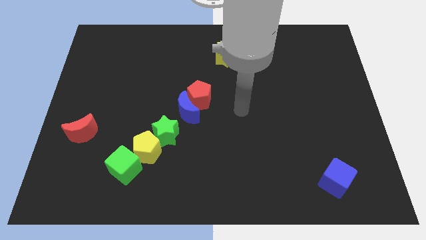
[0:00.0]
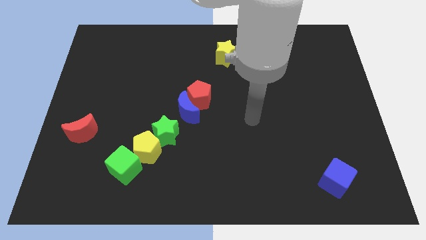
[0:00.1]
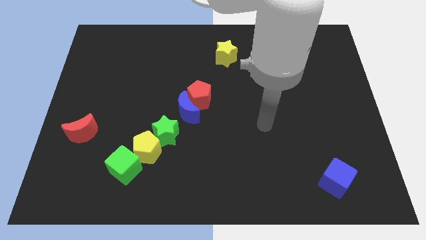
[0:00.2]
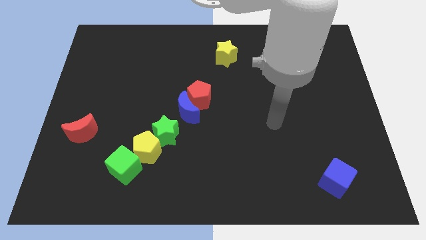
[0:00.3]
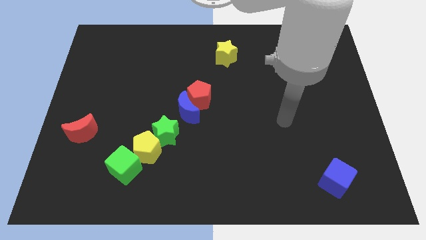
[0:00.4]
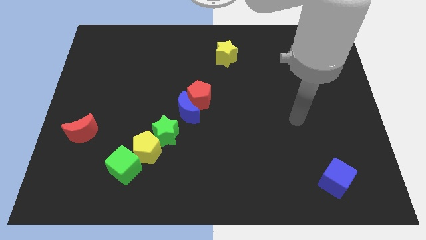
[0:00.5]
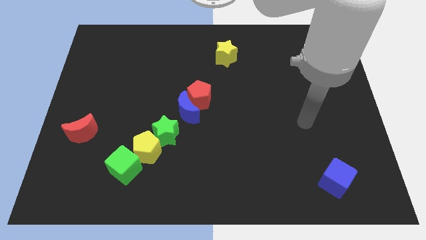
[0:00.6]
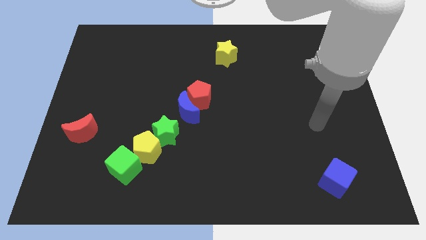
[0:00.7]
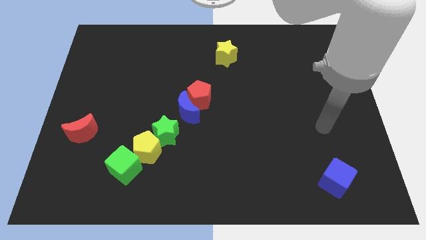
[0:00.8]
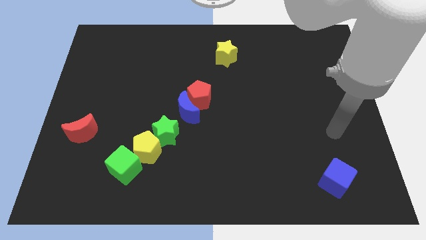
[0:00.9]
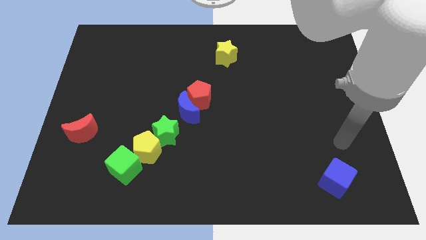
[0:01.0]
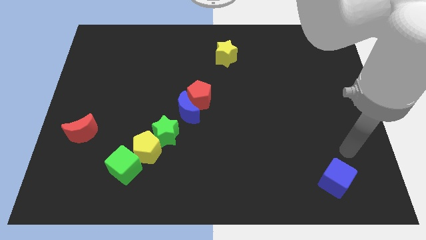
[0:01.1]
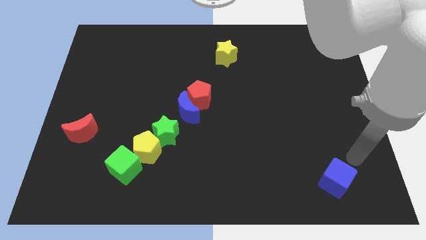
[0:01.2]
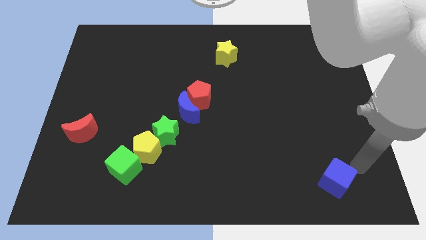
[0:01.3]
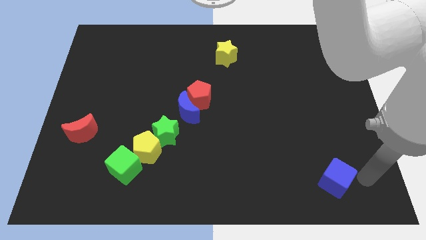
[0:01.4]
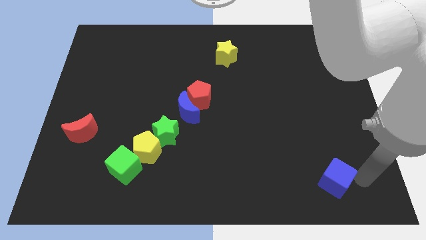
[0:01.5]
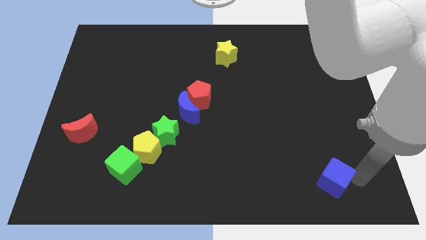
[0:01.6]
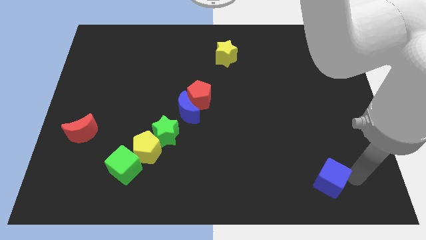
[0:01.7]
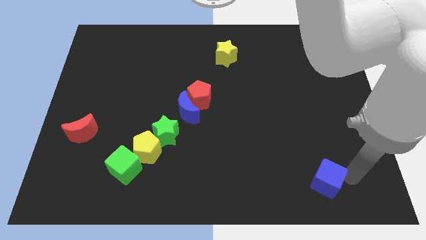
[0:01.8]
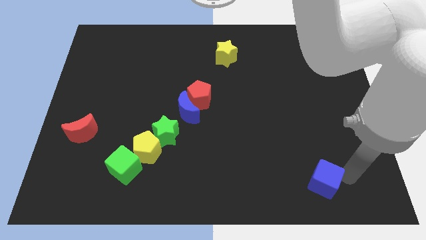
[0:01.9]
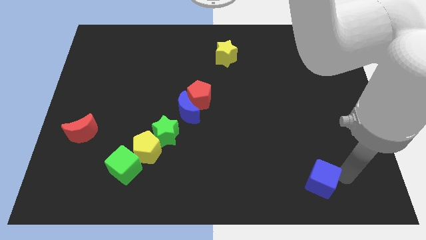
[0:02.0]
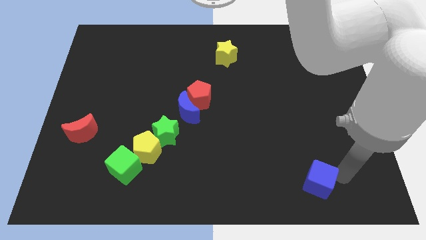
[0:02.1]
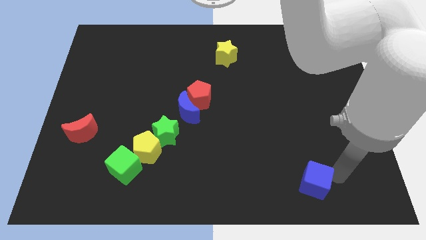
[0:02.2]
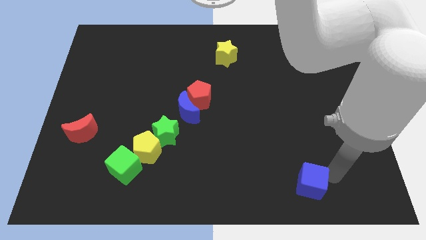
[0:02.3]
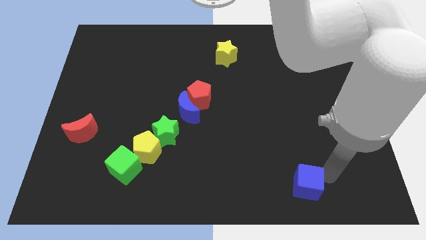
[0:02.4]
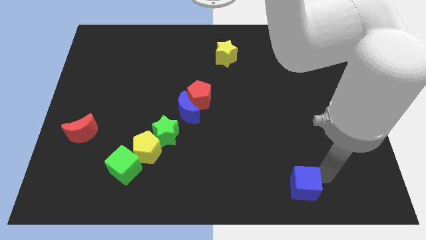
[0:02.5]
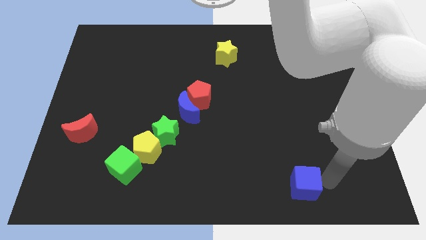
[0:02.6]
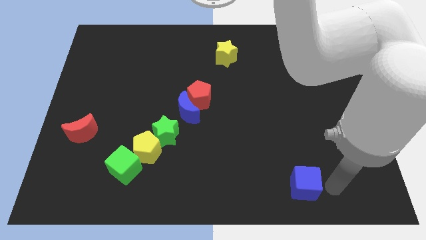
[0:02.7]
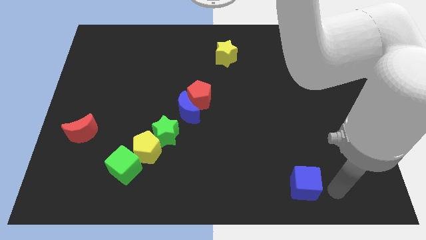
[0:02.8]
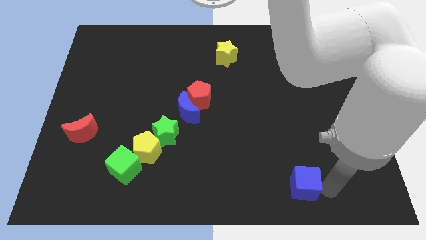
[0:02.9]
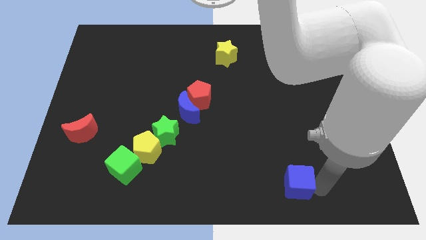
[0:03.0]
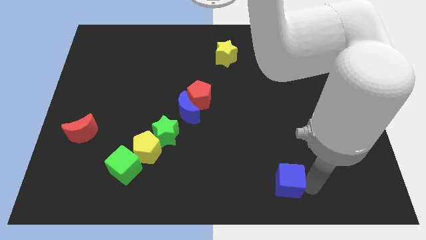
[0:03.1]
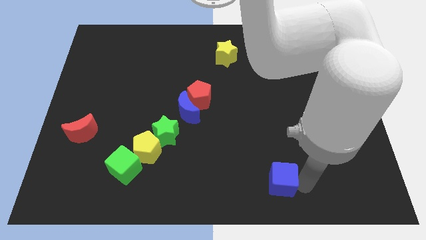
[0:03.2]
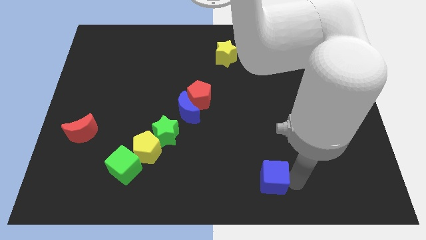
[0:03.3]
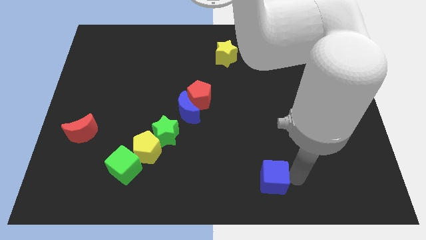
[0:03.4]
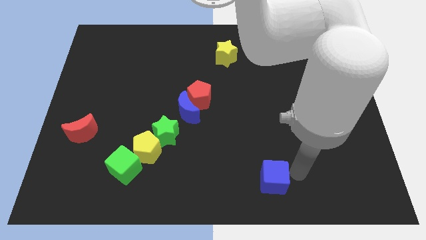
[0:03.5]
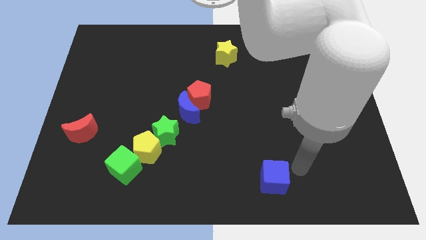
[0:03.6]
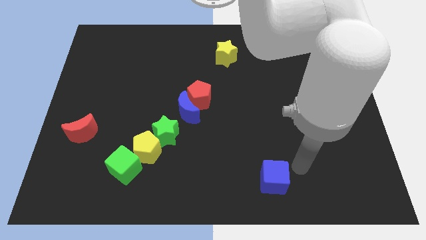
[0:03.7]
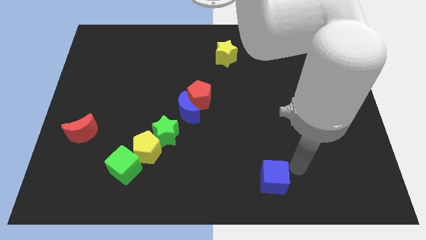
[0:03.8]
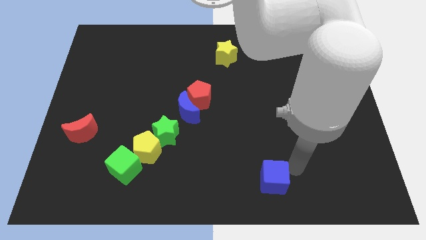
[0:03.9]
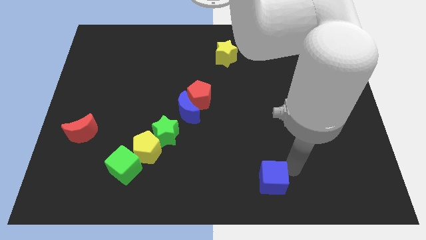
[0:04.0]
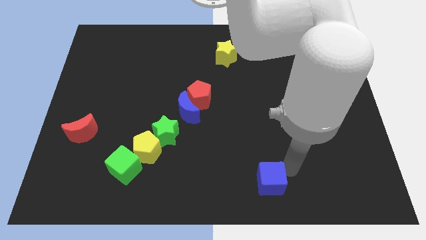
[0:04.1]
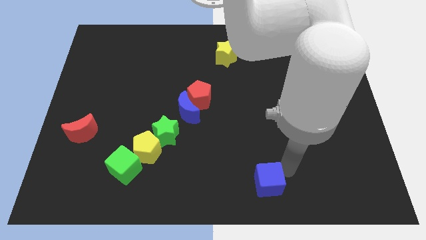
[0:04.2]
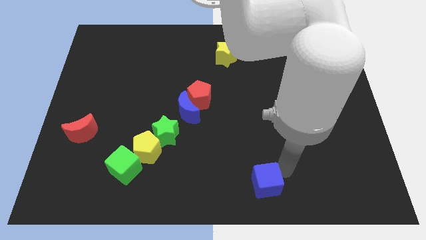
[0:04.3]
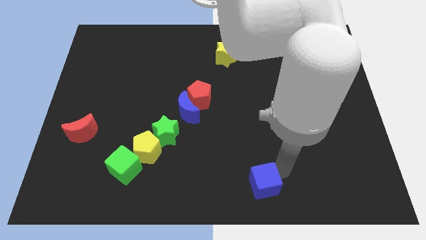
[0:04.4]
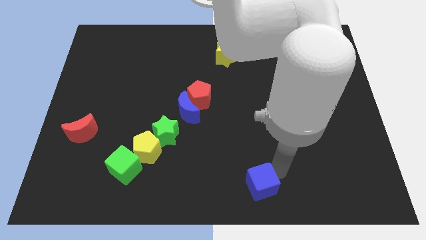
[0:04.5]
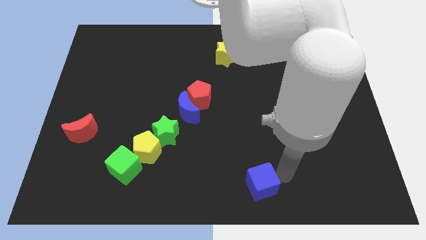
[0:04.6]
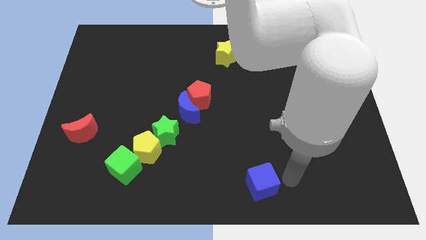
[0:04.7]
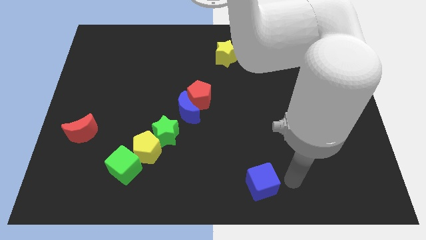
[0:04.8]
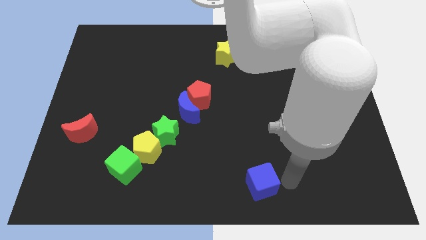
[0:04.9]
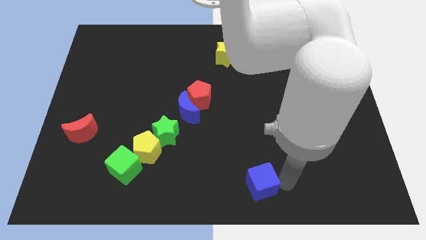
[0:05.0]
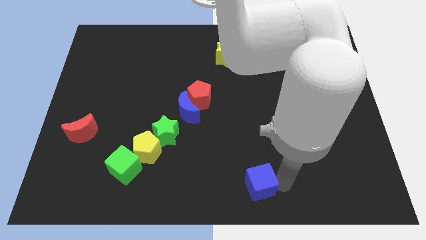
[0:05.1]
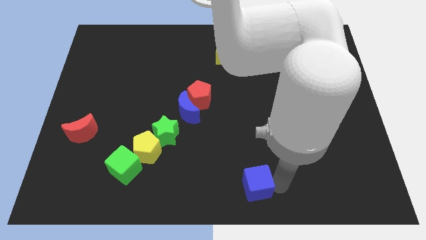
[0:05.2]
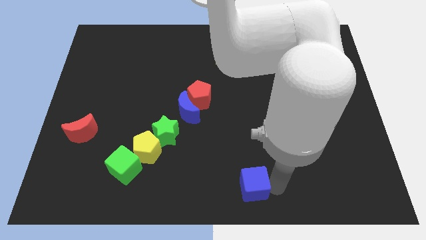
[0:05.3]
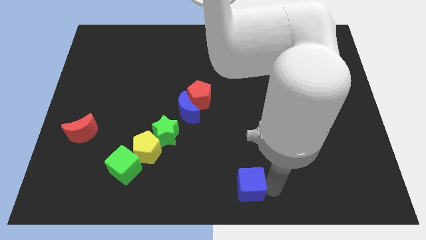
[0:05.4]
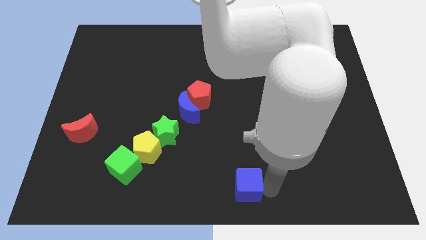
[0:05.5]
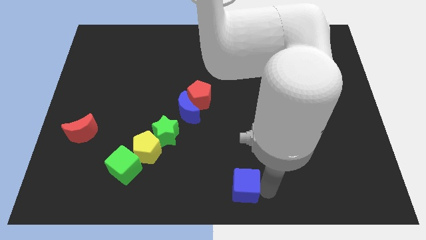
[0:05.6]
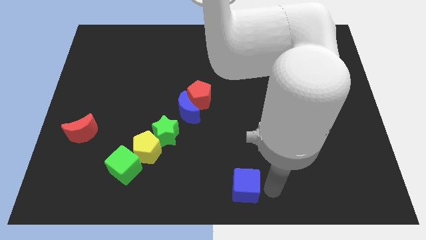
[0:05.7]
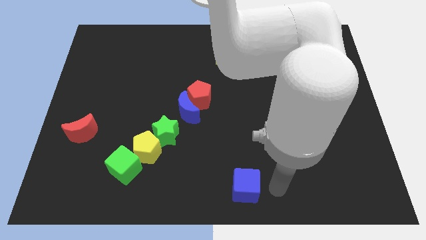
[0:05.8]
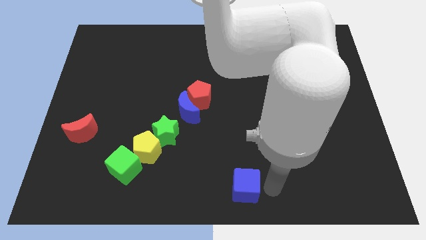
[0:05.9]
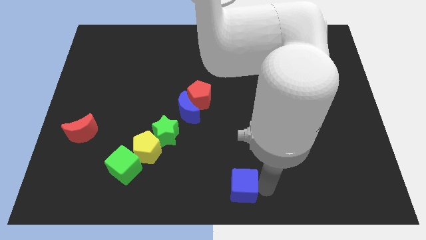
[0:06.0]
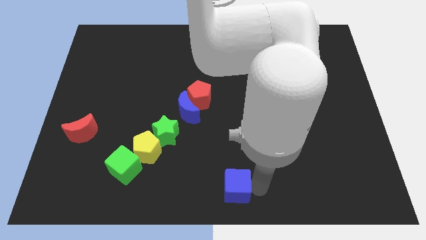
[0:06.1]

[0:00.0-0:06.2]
push the blue cube to the left

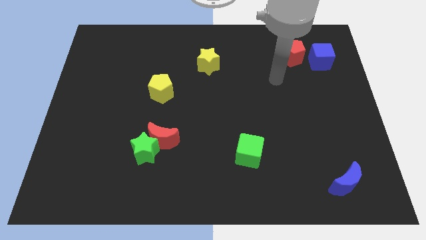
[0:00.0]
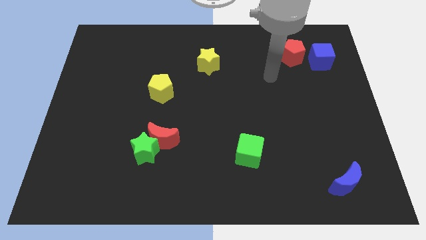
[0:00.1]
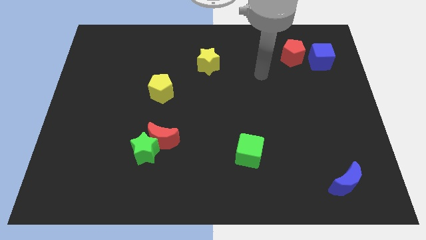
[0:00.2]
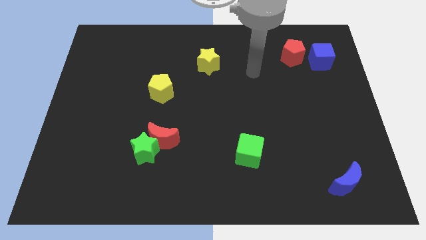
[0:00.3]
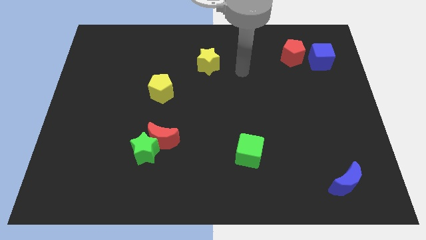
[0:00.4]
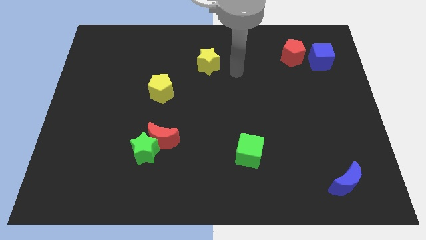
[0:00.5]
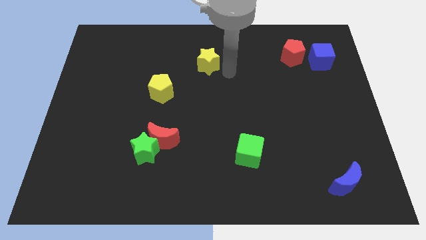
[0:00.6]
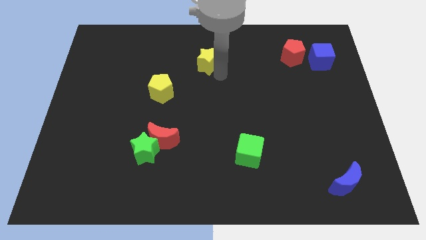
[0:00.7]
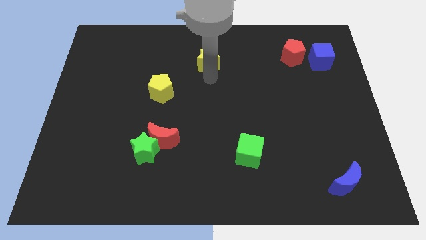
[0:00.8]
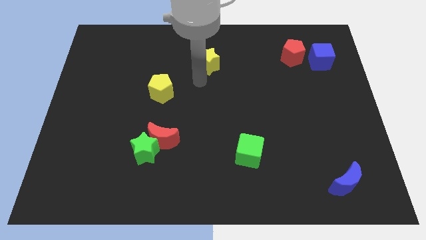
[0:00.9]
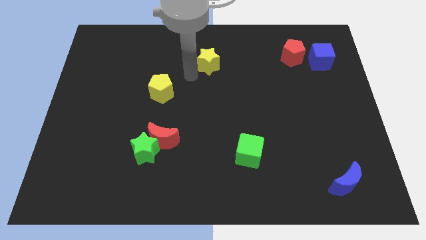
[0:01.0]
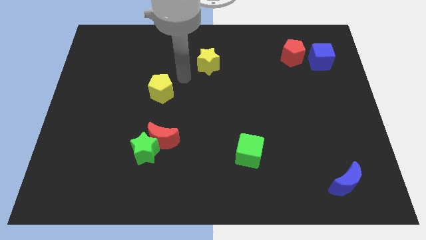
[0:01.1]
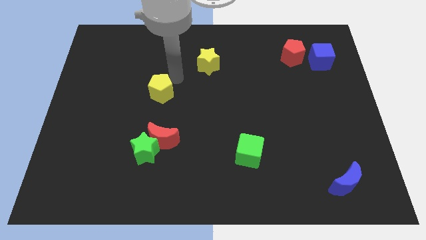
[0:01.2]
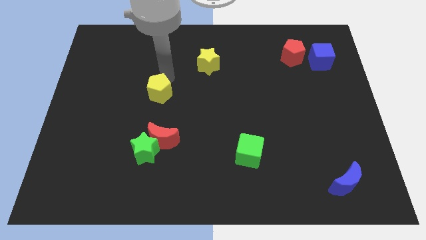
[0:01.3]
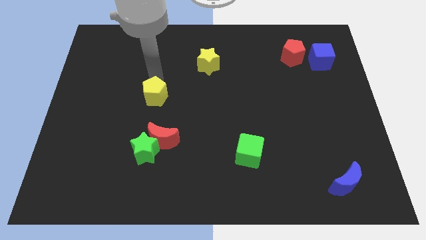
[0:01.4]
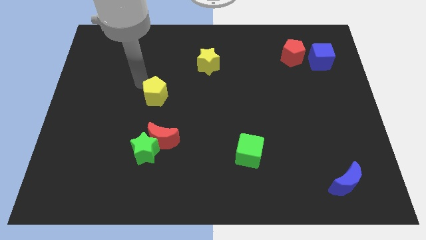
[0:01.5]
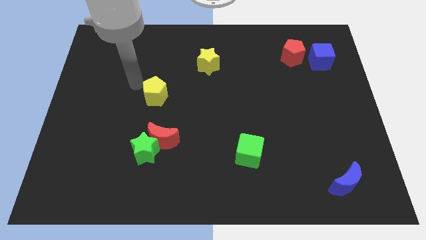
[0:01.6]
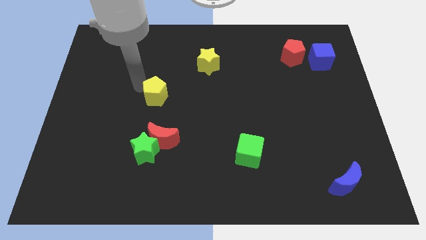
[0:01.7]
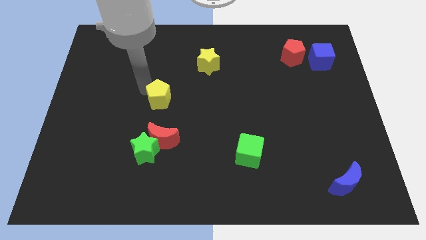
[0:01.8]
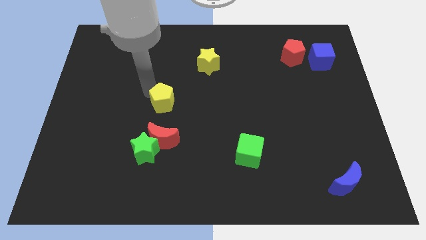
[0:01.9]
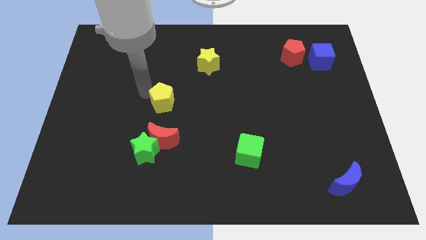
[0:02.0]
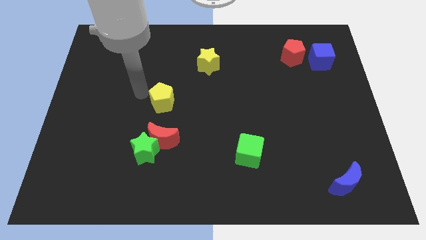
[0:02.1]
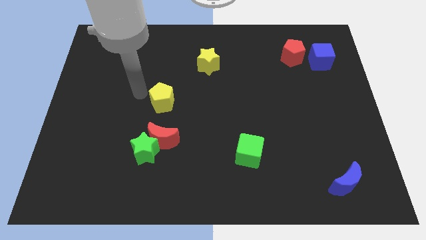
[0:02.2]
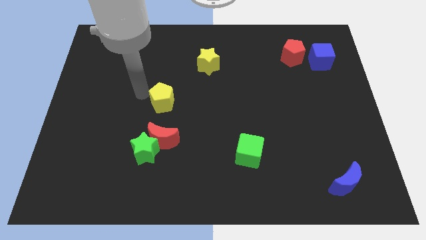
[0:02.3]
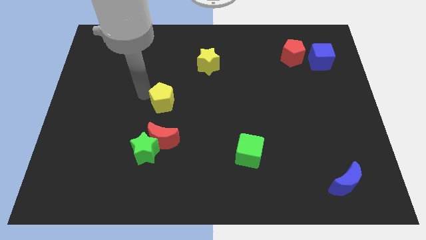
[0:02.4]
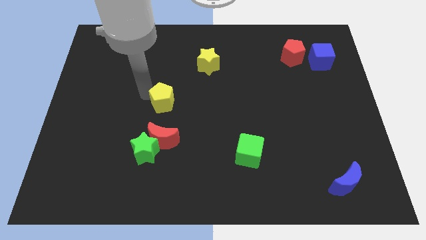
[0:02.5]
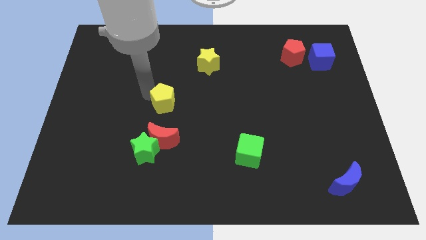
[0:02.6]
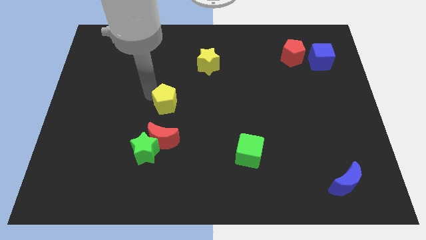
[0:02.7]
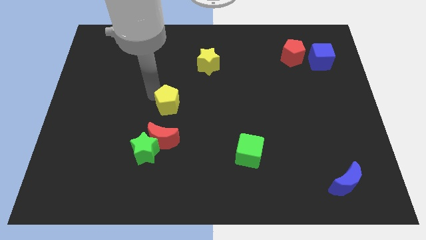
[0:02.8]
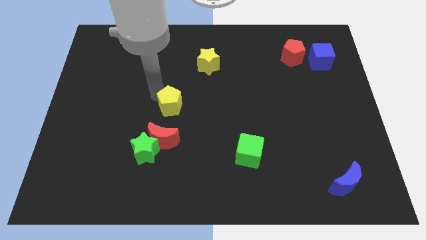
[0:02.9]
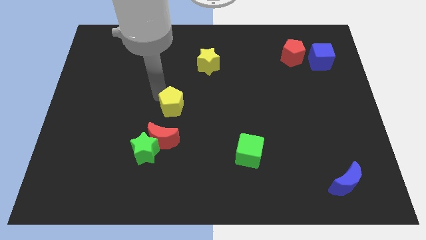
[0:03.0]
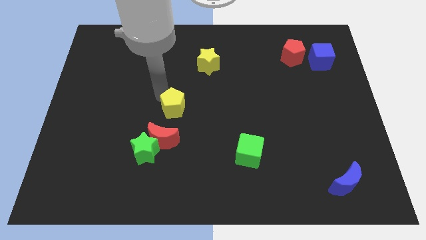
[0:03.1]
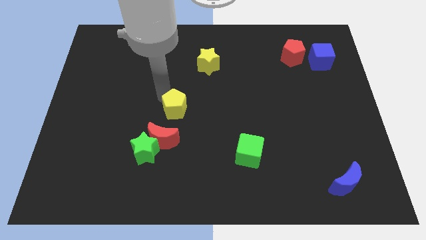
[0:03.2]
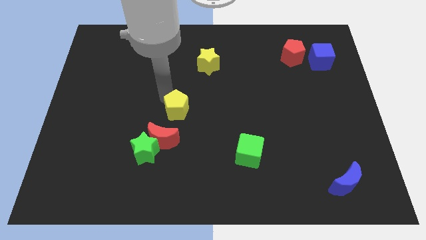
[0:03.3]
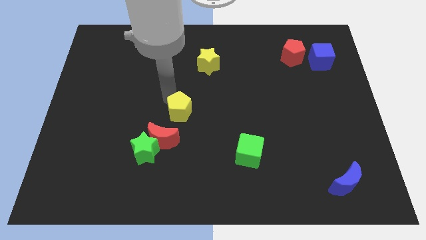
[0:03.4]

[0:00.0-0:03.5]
slide the yellow pentagon downwards and right a bit
